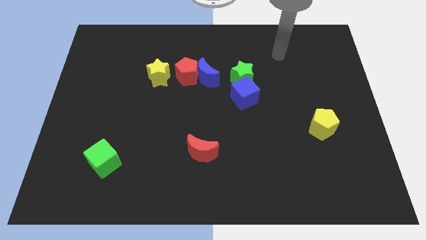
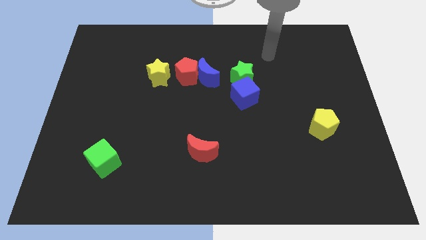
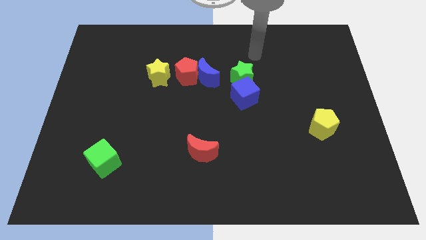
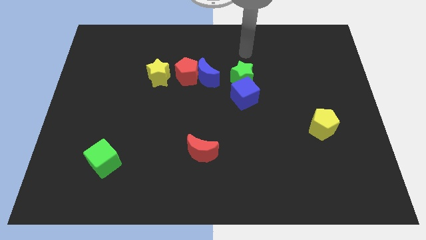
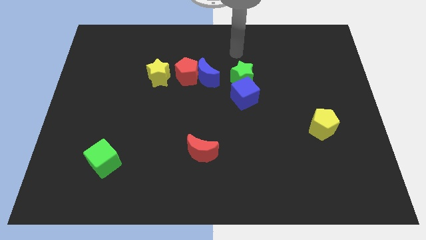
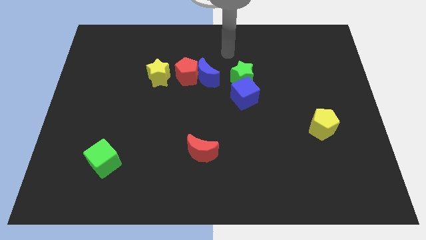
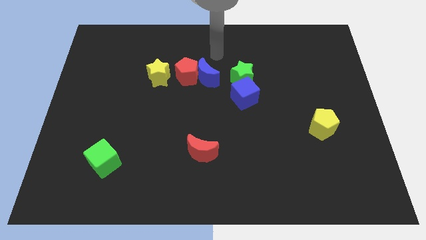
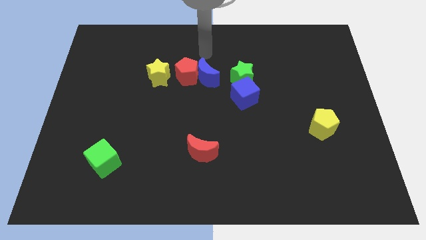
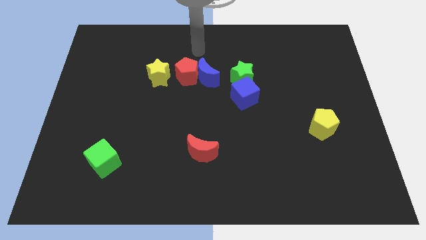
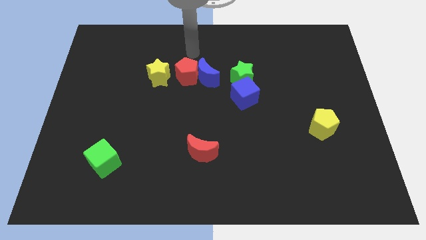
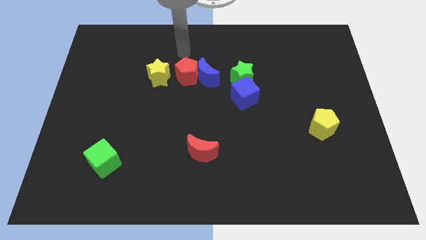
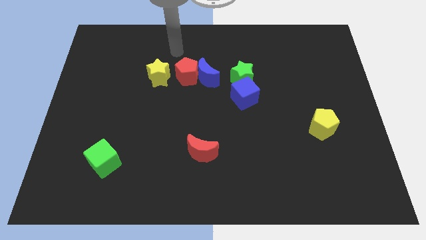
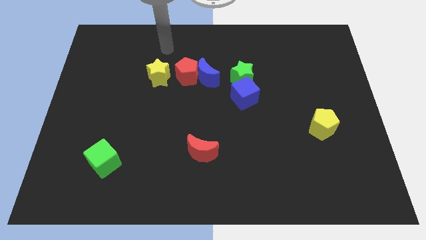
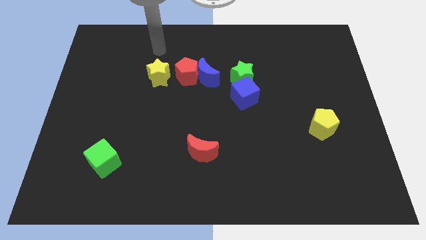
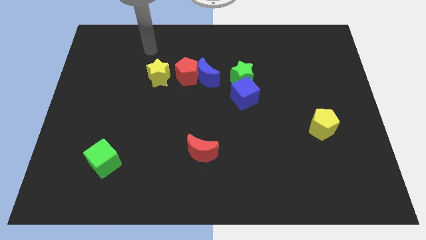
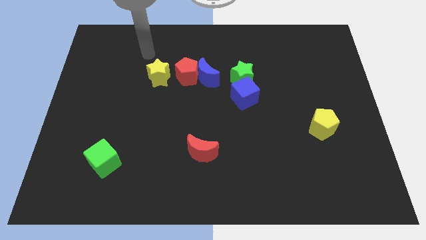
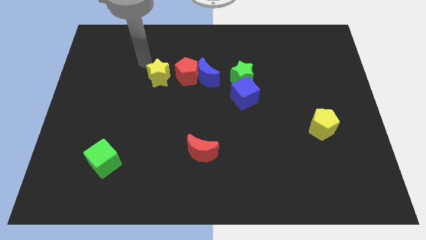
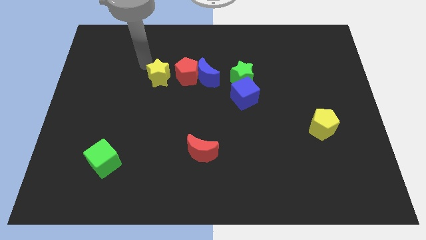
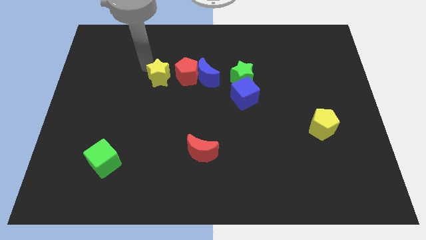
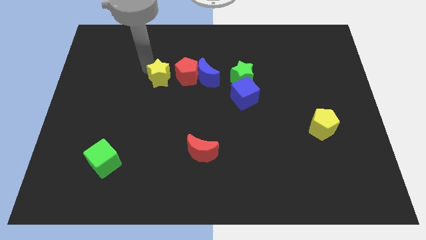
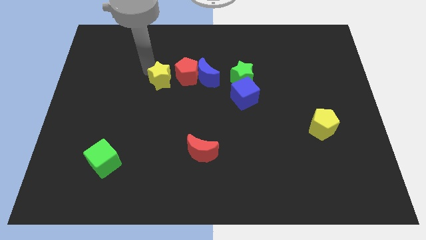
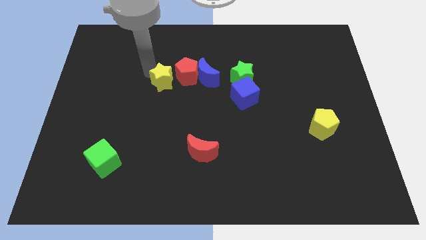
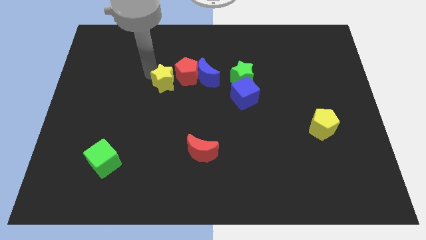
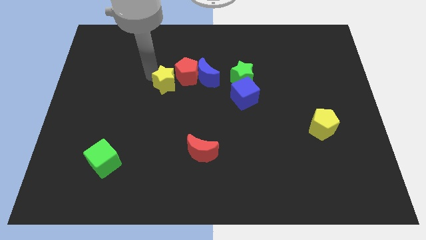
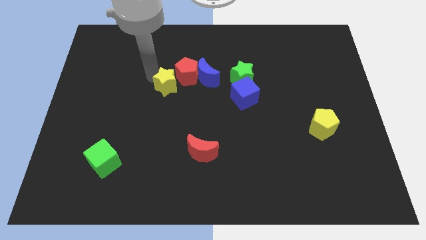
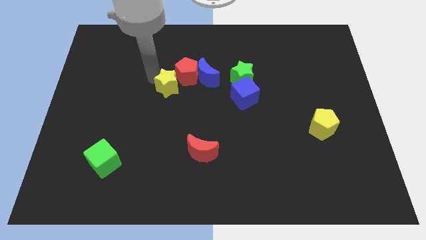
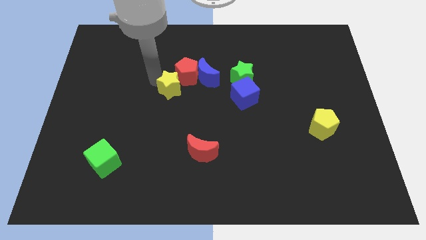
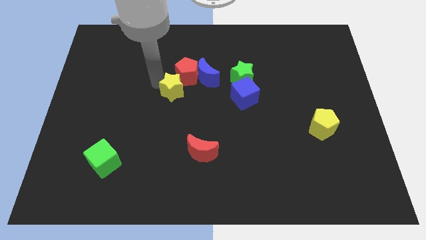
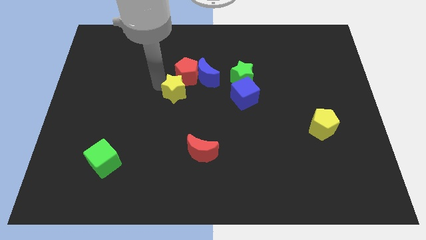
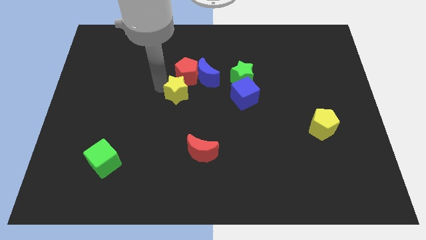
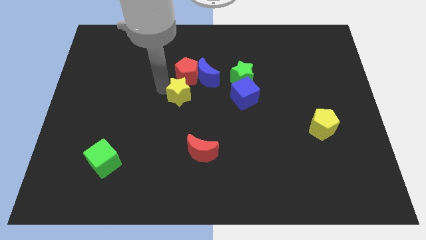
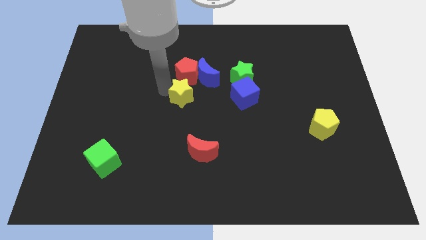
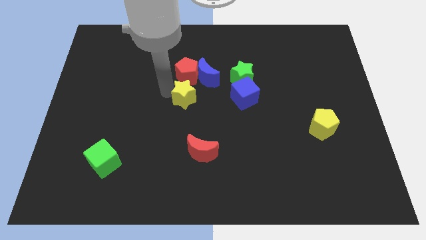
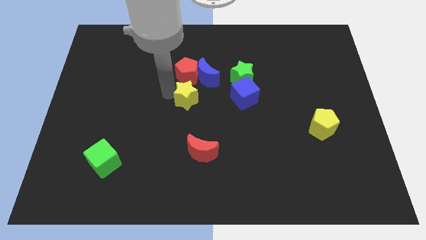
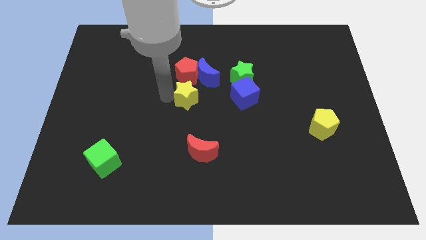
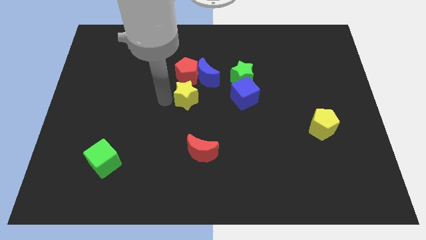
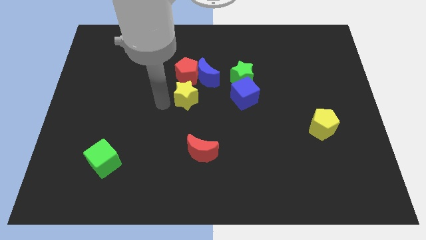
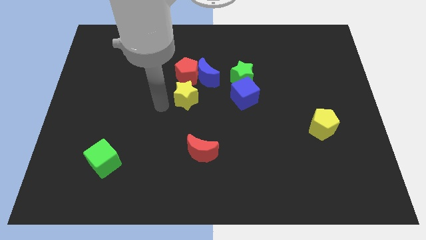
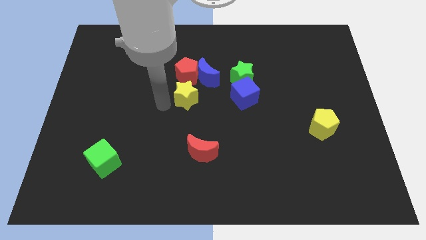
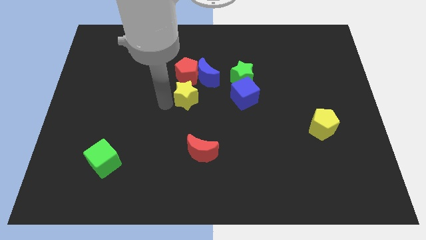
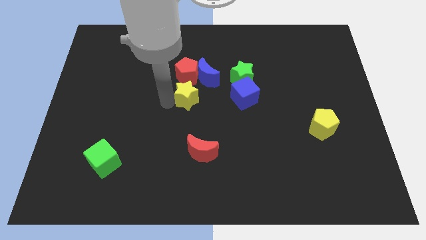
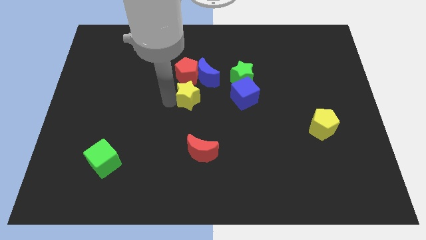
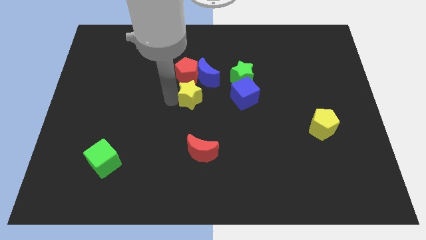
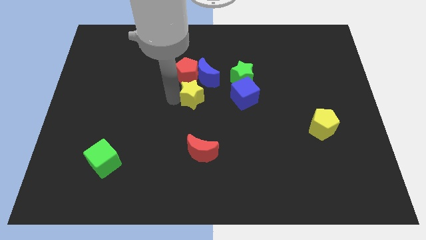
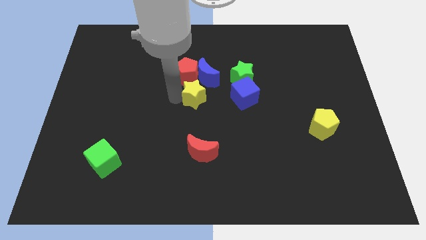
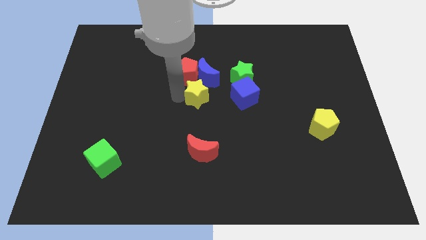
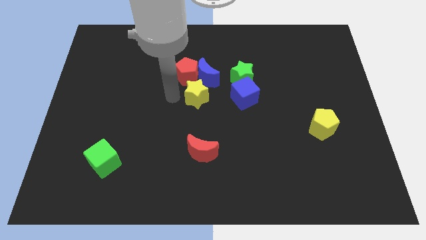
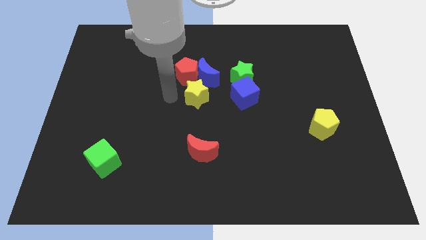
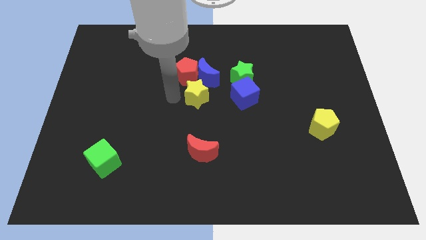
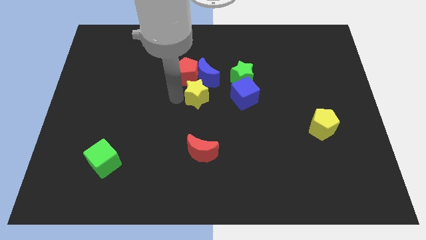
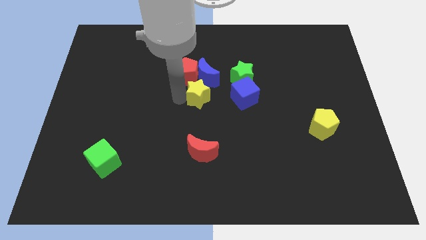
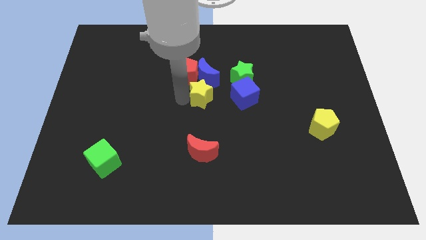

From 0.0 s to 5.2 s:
slide the yellow star to the bottom left side of the green star

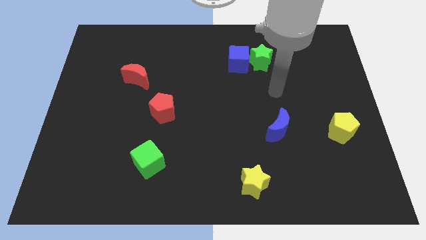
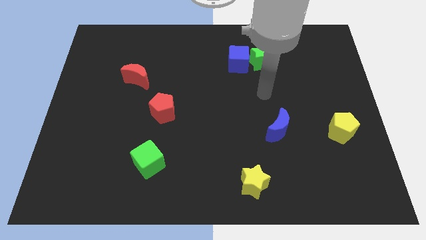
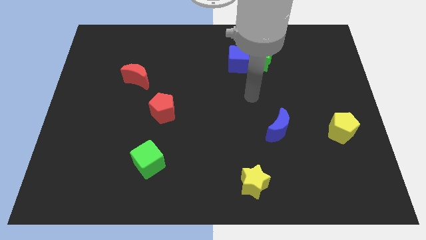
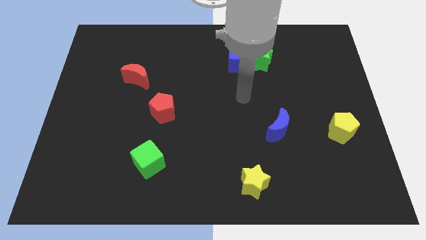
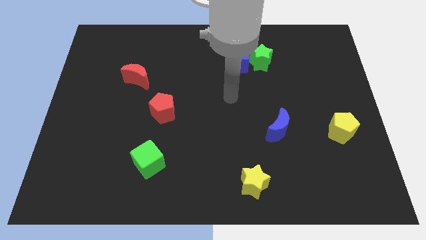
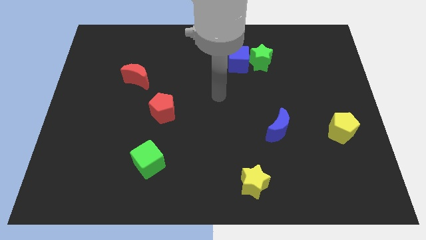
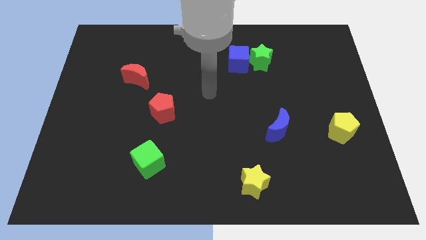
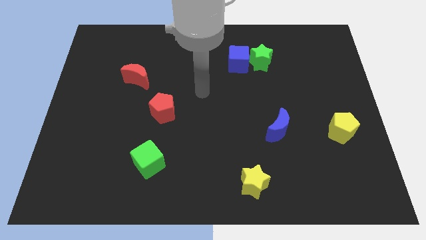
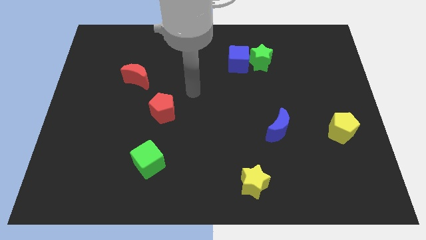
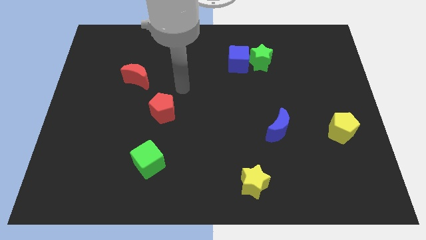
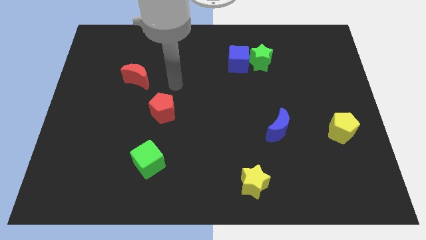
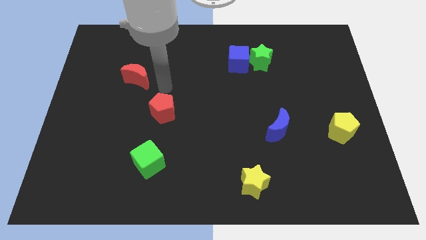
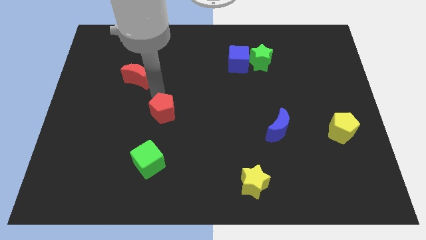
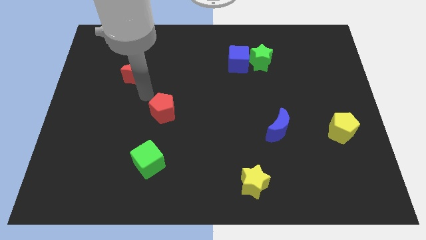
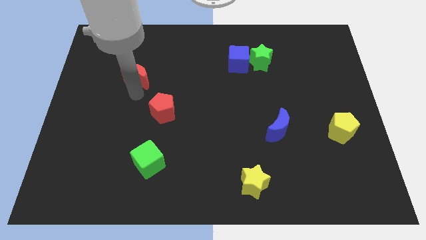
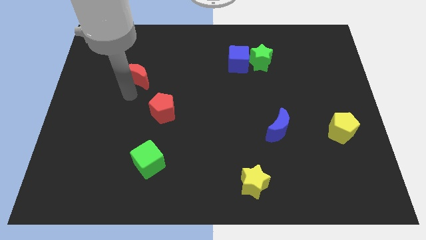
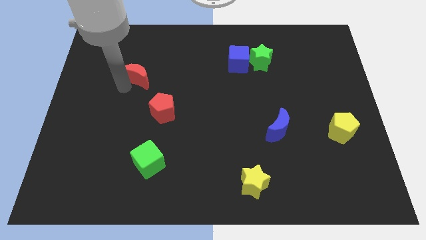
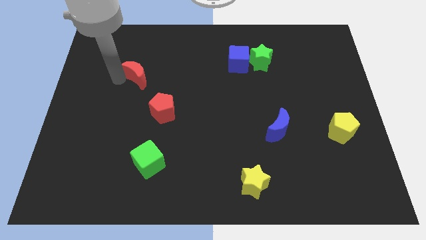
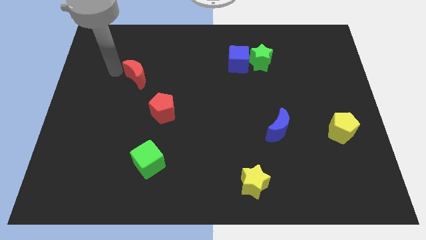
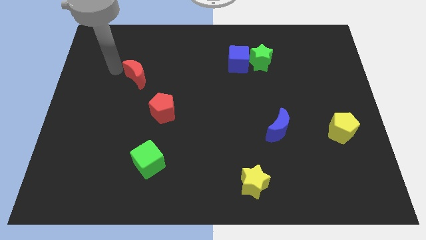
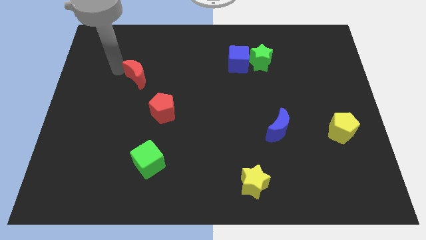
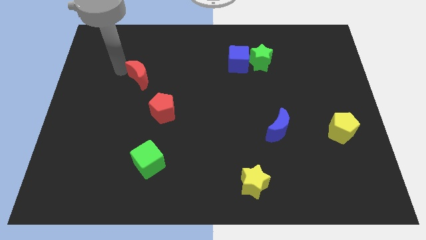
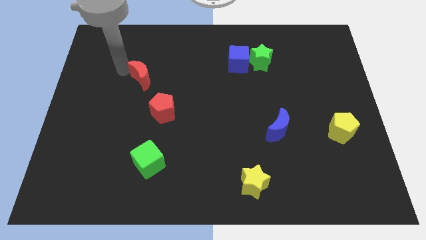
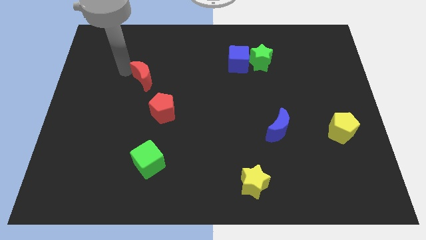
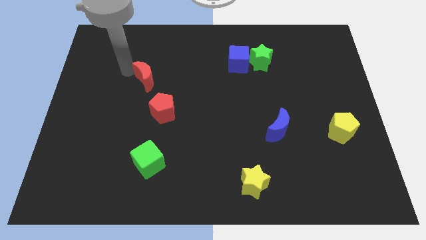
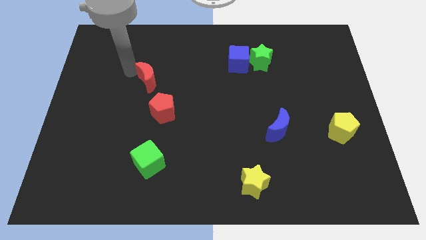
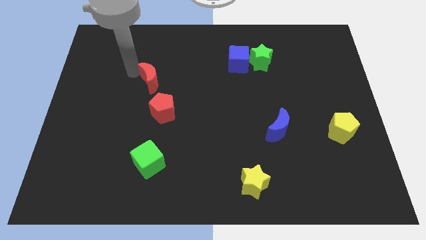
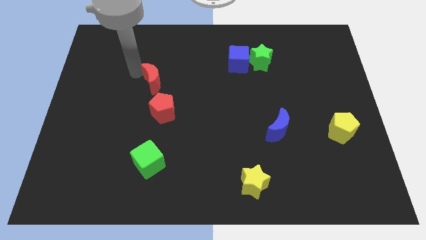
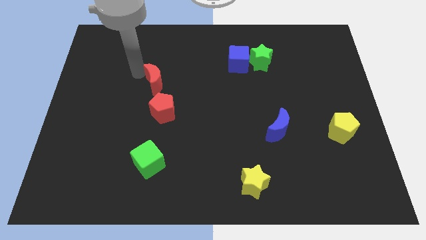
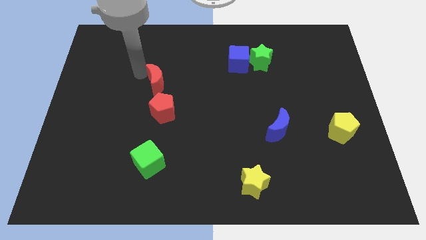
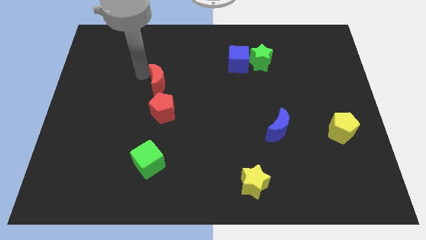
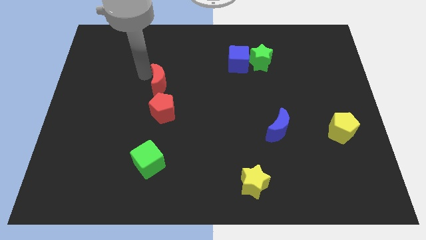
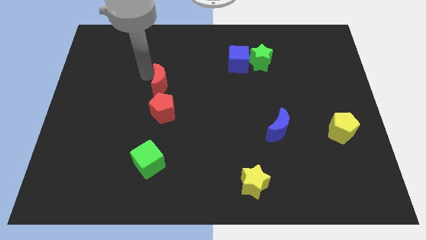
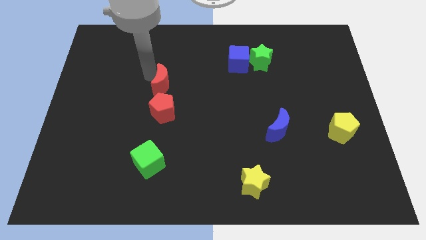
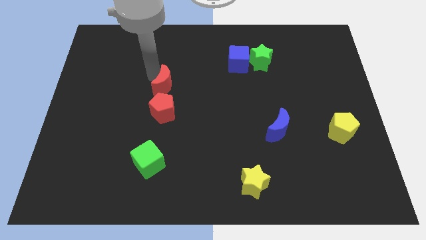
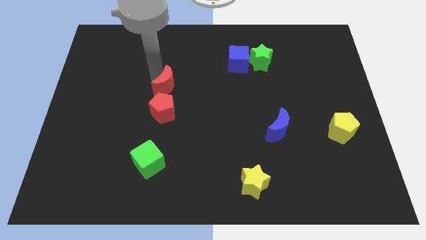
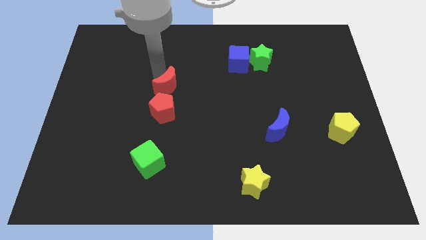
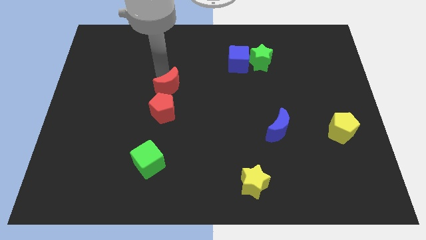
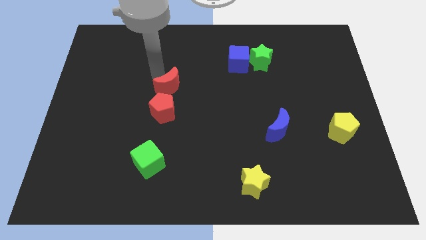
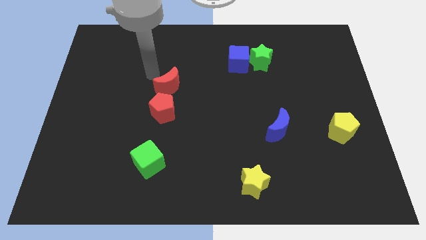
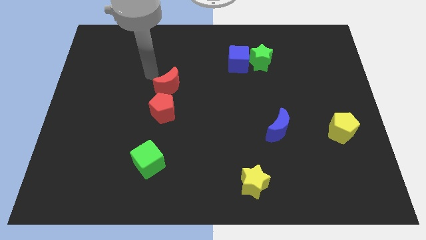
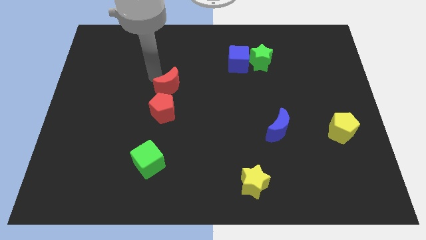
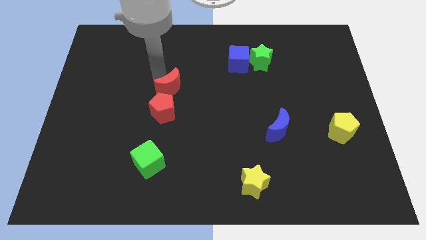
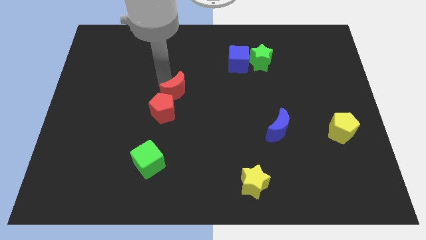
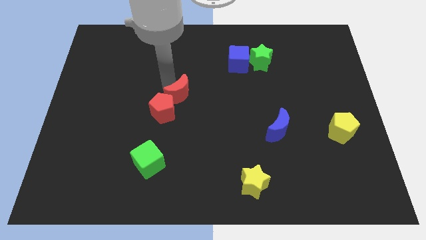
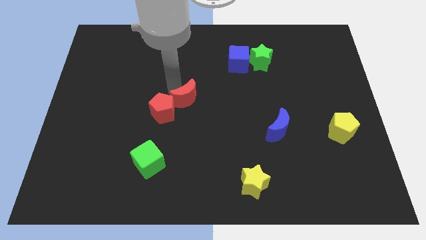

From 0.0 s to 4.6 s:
put the red moon just right of the red pentagon
